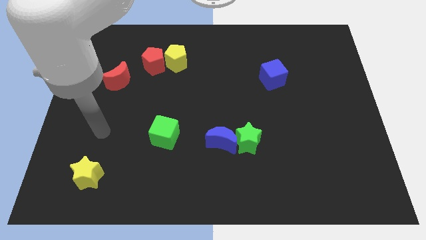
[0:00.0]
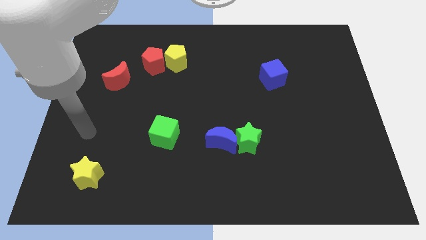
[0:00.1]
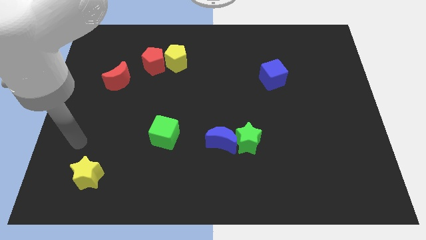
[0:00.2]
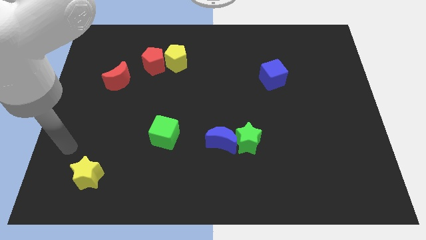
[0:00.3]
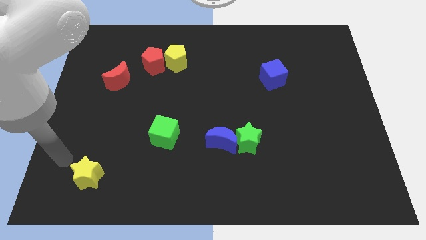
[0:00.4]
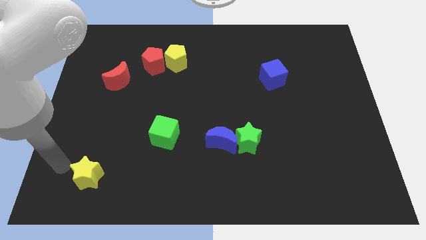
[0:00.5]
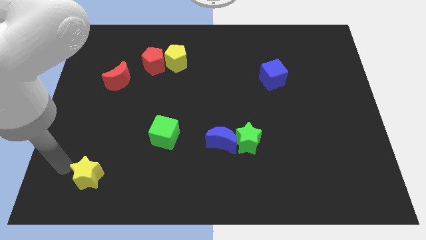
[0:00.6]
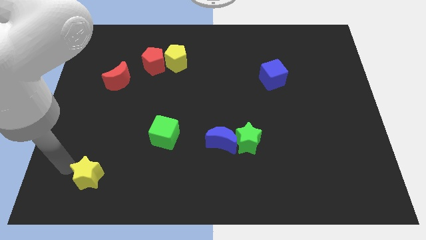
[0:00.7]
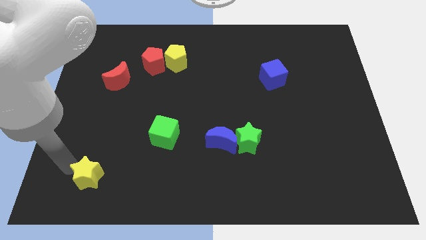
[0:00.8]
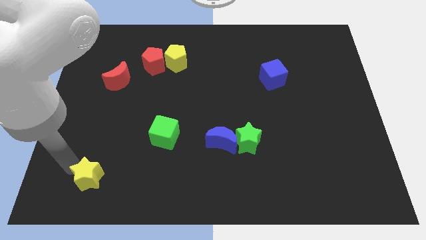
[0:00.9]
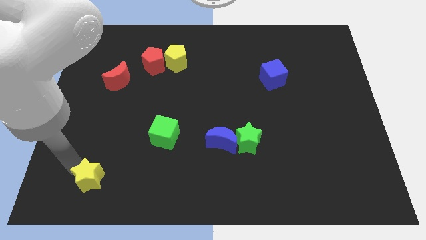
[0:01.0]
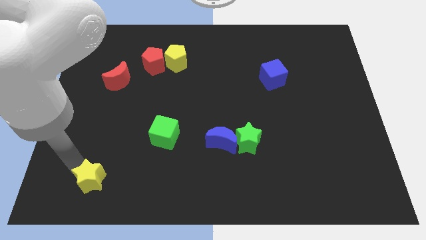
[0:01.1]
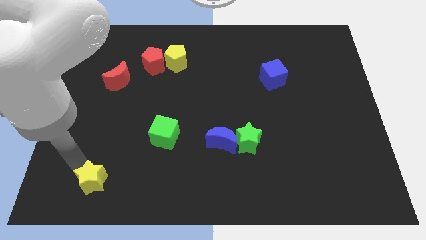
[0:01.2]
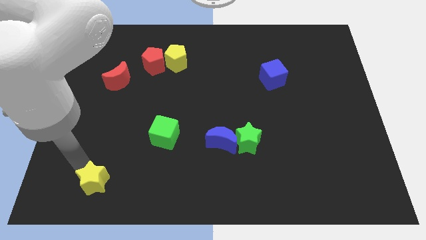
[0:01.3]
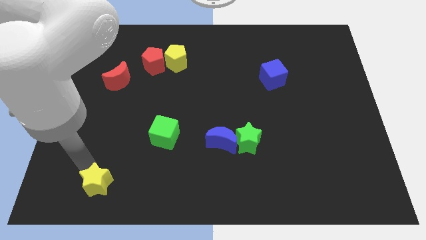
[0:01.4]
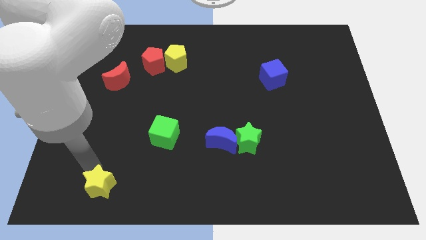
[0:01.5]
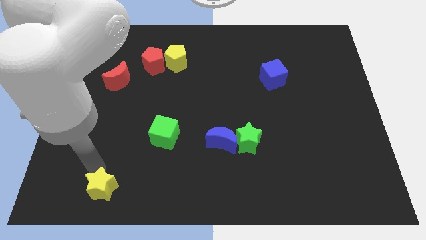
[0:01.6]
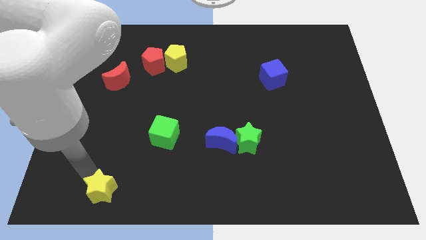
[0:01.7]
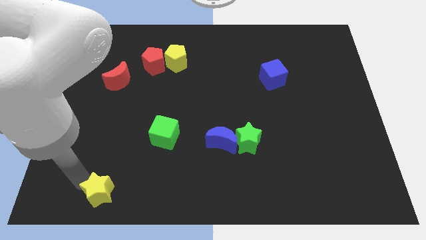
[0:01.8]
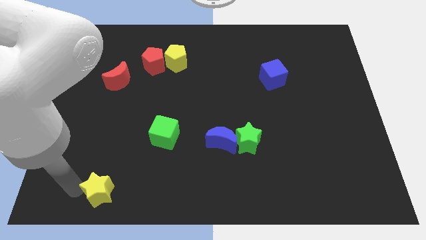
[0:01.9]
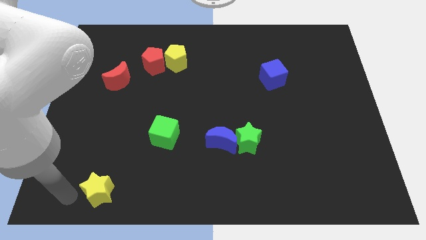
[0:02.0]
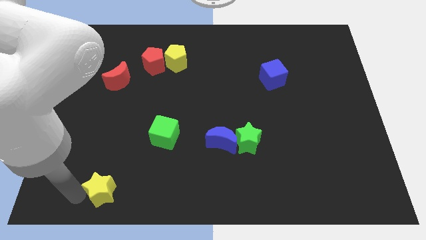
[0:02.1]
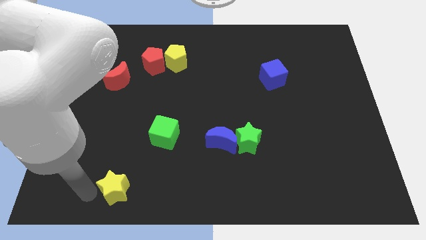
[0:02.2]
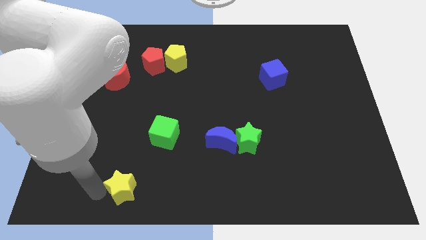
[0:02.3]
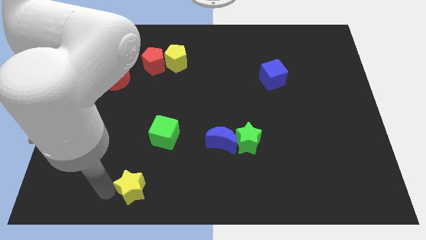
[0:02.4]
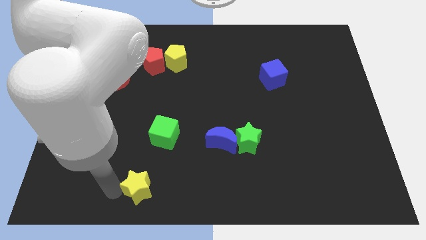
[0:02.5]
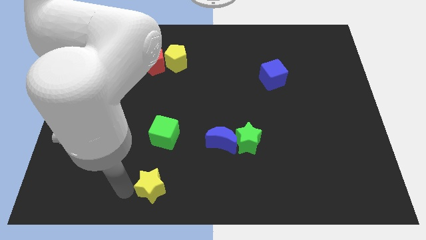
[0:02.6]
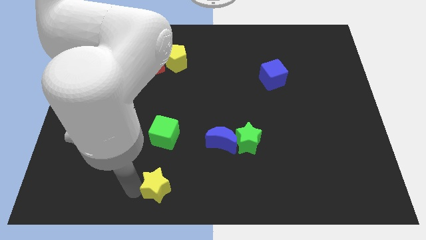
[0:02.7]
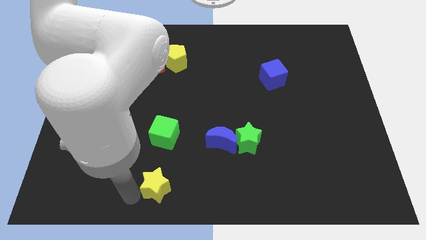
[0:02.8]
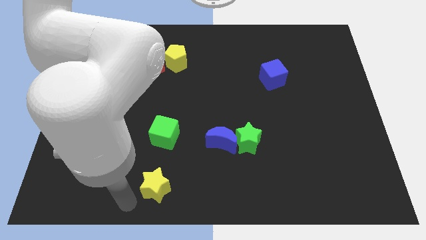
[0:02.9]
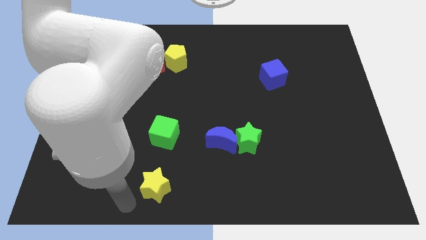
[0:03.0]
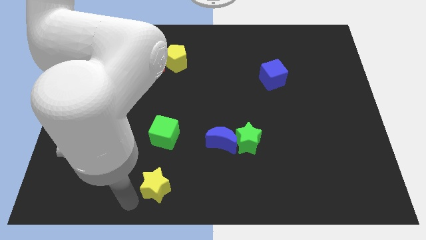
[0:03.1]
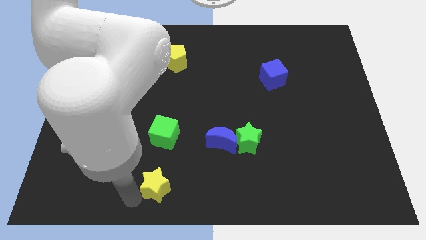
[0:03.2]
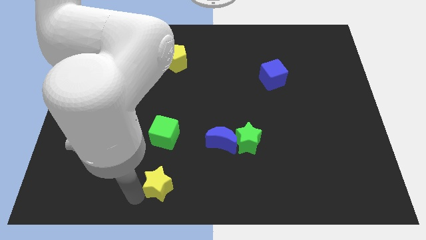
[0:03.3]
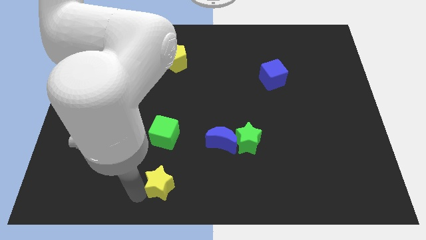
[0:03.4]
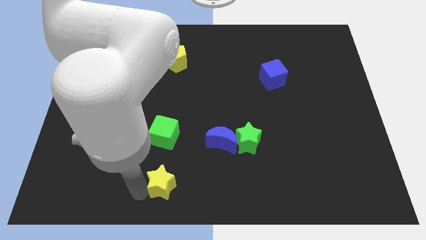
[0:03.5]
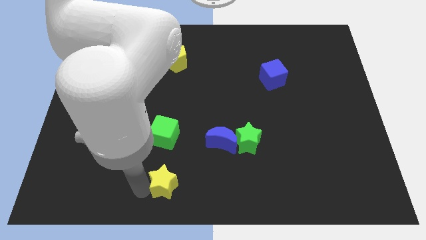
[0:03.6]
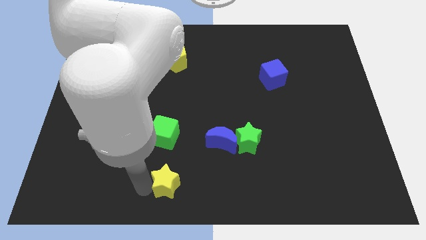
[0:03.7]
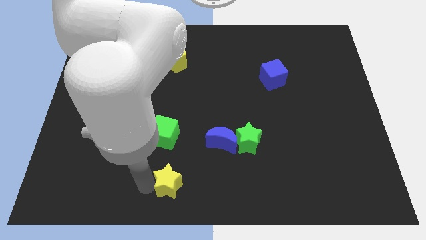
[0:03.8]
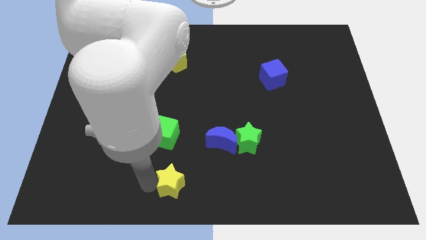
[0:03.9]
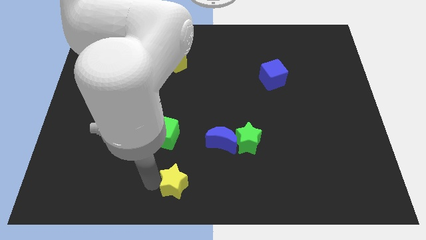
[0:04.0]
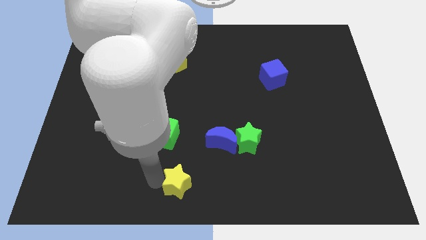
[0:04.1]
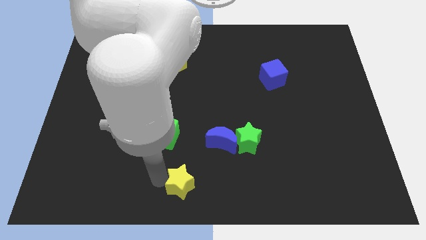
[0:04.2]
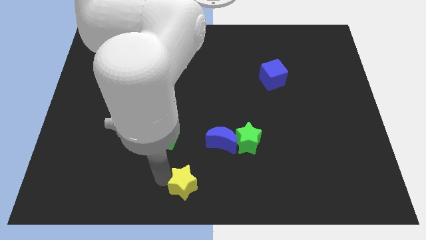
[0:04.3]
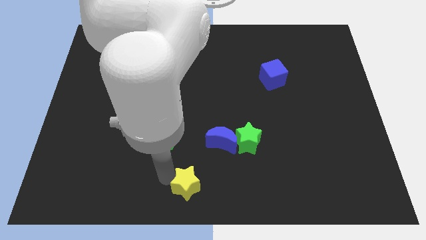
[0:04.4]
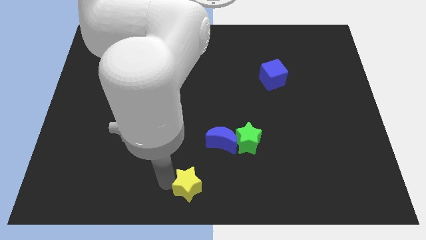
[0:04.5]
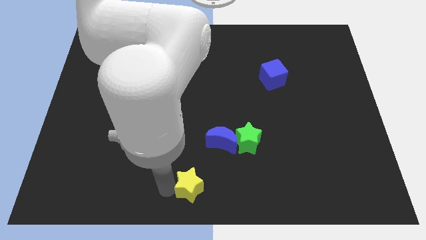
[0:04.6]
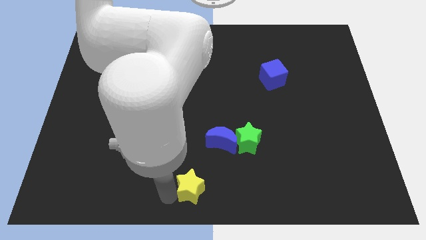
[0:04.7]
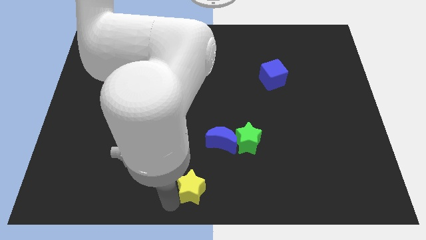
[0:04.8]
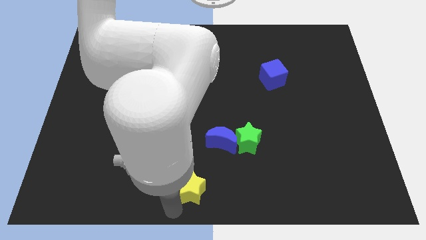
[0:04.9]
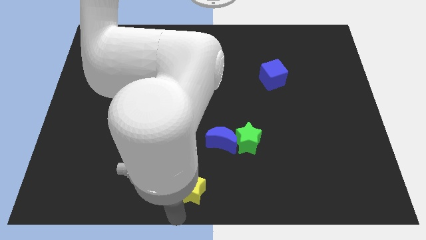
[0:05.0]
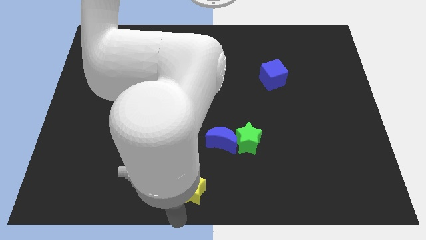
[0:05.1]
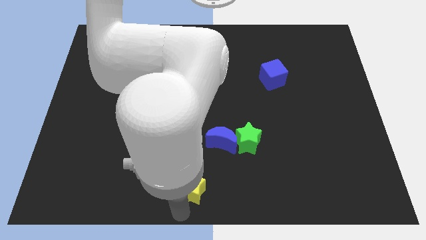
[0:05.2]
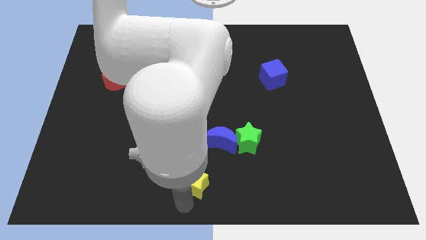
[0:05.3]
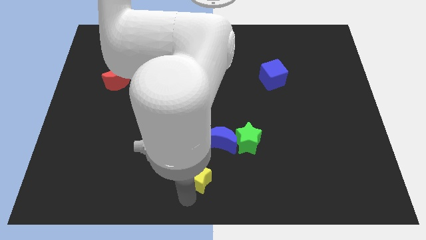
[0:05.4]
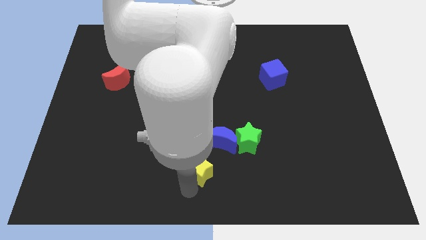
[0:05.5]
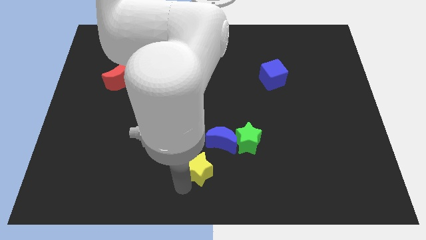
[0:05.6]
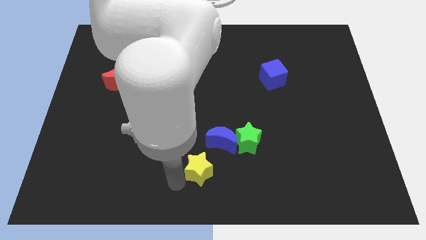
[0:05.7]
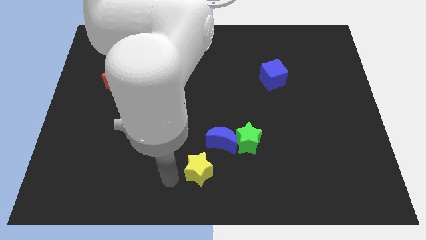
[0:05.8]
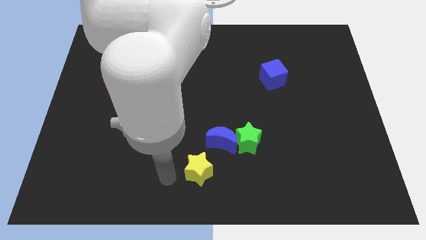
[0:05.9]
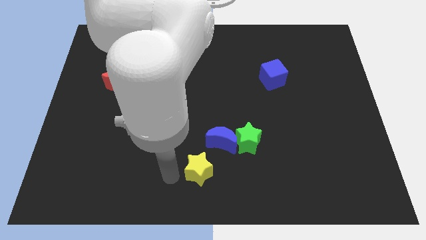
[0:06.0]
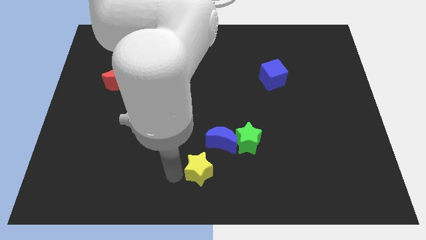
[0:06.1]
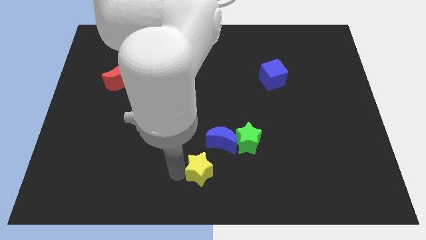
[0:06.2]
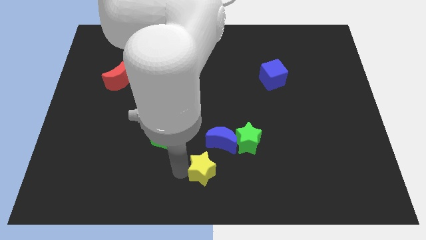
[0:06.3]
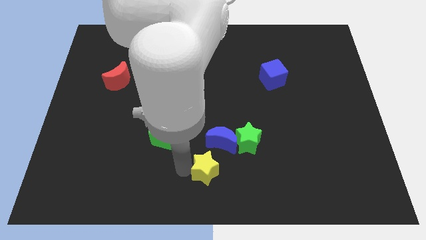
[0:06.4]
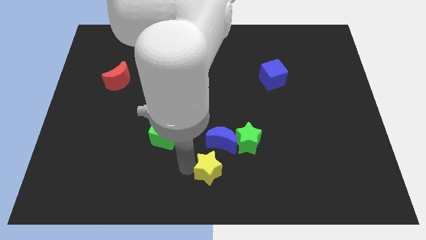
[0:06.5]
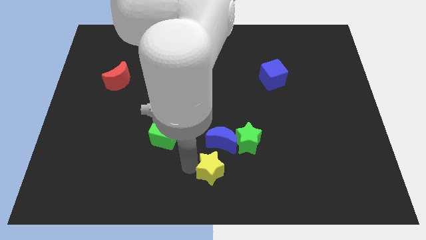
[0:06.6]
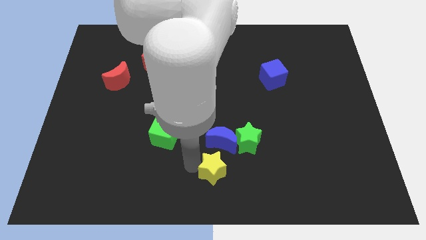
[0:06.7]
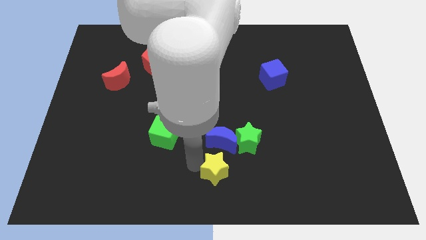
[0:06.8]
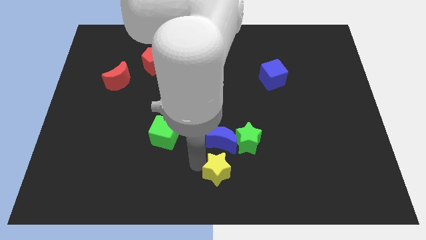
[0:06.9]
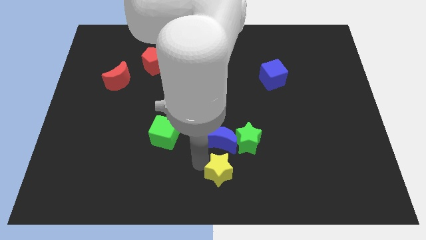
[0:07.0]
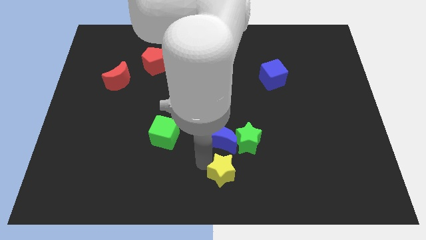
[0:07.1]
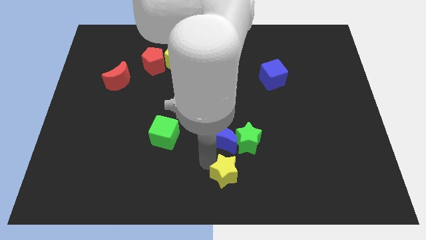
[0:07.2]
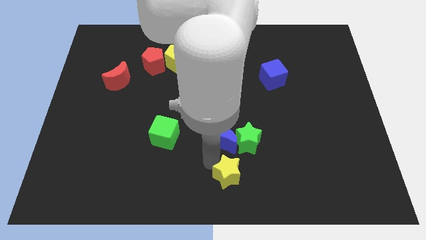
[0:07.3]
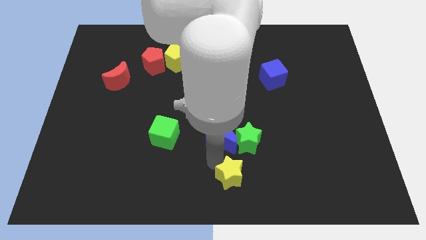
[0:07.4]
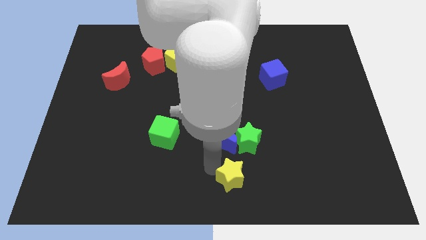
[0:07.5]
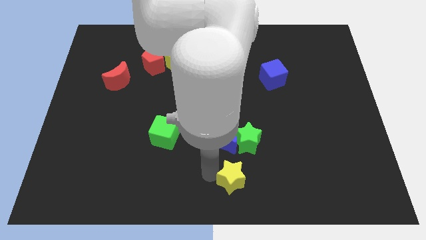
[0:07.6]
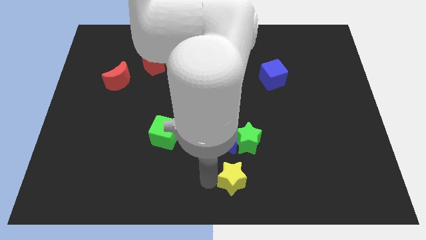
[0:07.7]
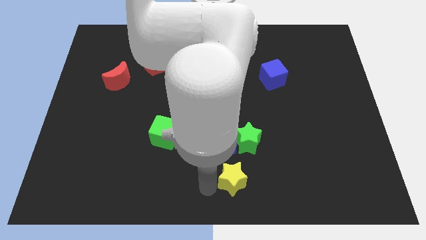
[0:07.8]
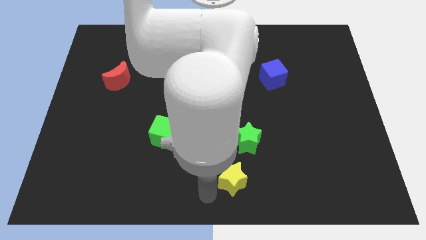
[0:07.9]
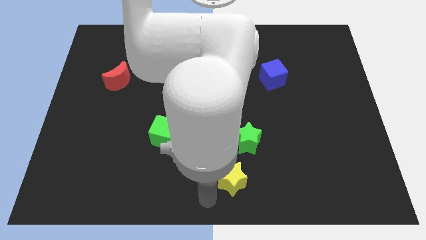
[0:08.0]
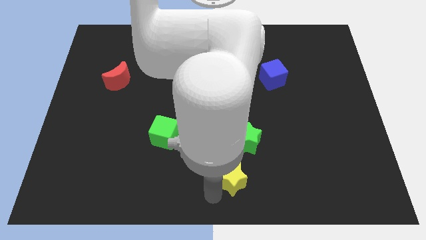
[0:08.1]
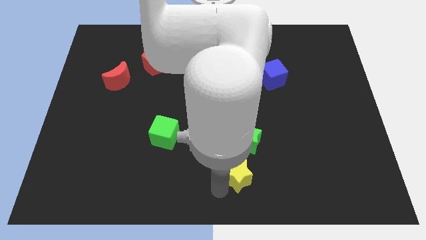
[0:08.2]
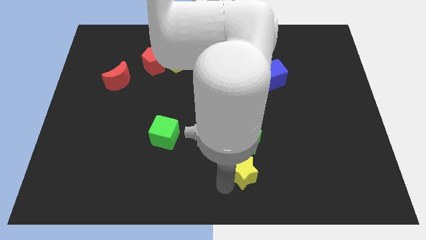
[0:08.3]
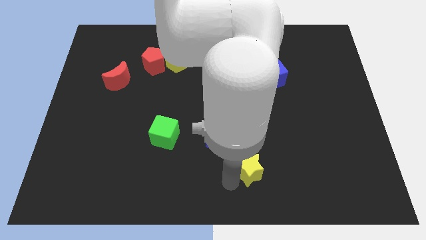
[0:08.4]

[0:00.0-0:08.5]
push the yellow star to the bottom right side of the green star
